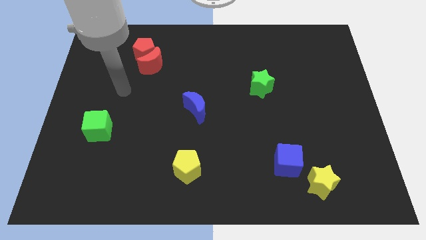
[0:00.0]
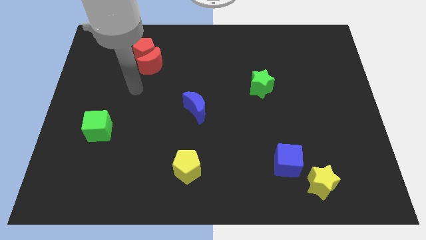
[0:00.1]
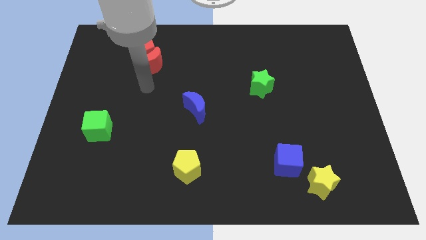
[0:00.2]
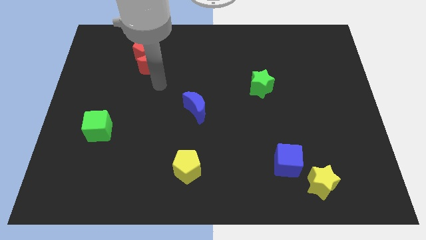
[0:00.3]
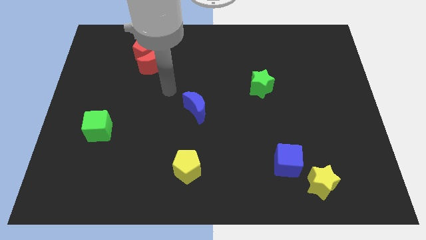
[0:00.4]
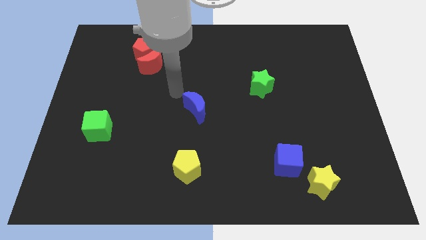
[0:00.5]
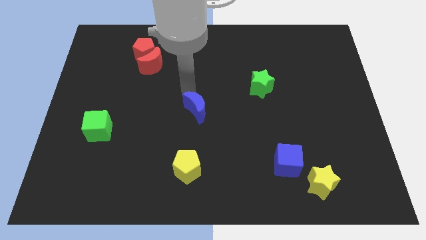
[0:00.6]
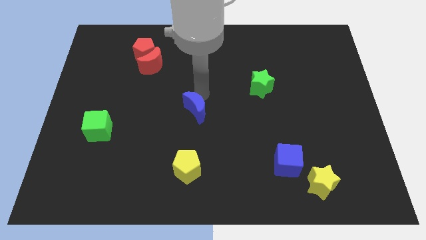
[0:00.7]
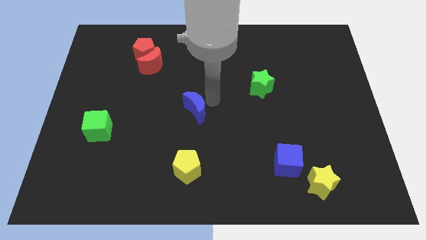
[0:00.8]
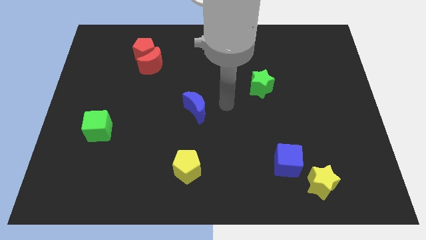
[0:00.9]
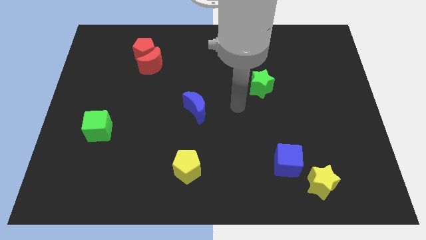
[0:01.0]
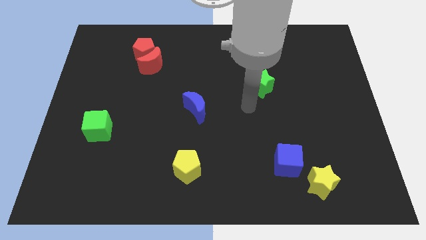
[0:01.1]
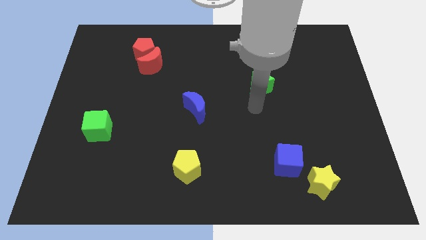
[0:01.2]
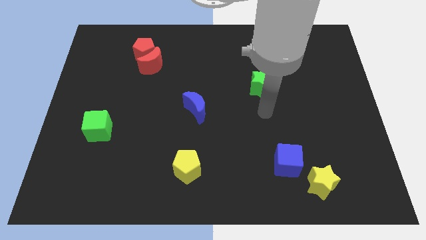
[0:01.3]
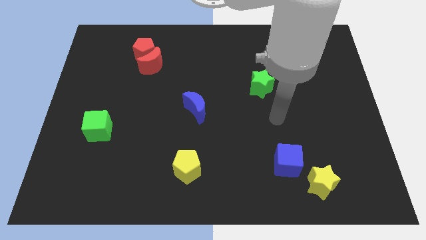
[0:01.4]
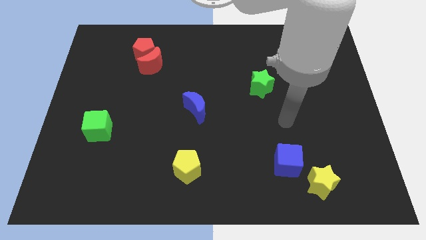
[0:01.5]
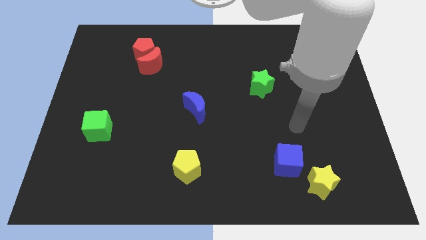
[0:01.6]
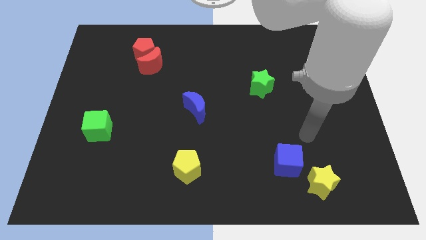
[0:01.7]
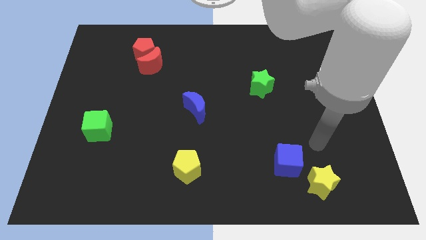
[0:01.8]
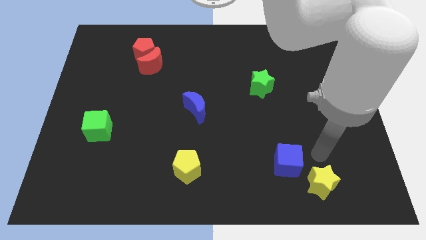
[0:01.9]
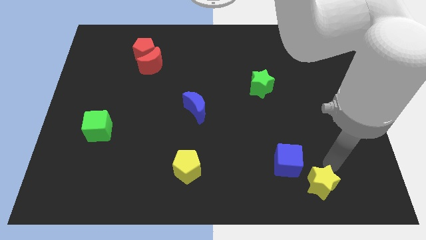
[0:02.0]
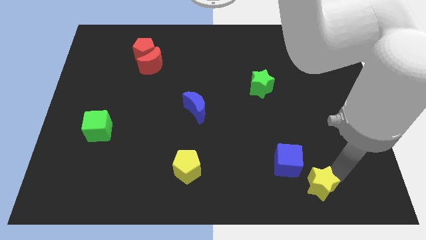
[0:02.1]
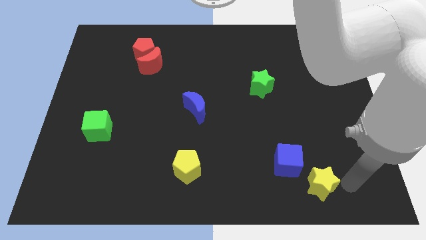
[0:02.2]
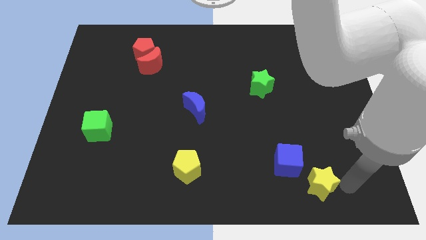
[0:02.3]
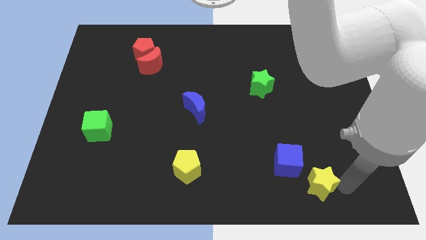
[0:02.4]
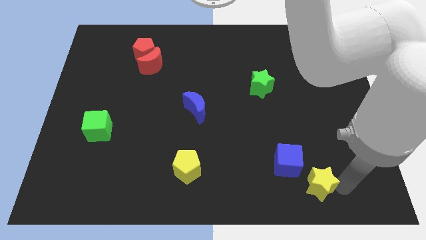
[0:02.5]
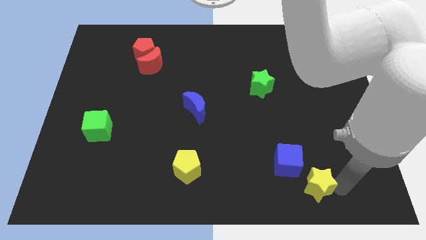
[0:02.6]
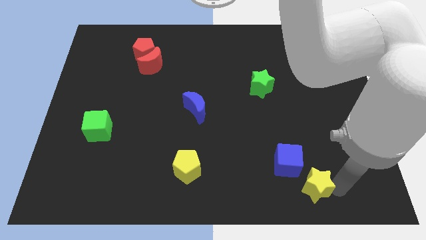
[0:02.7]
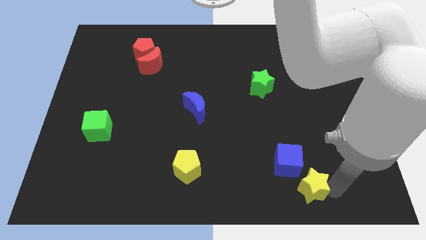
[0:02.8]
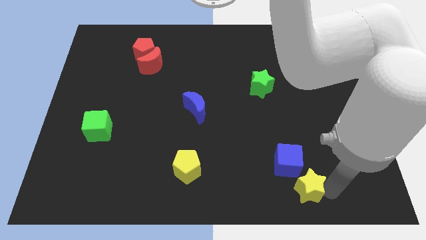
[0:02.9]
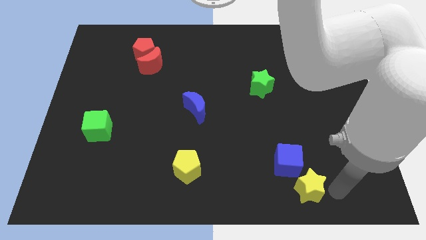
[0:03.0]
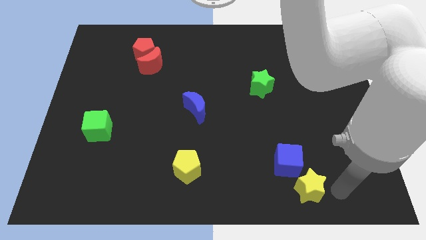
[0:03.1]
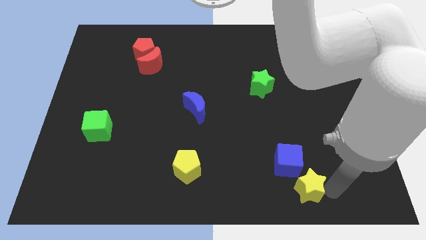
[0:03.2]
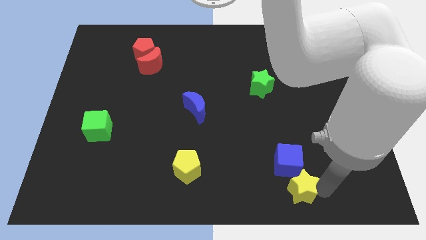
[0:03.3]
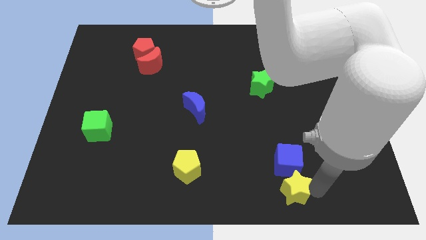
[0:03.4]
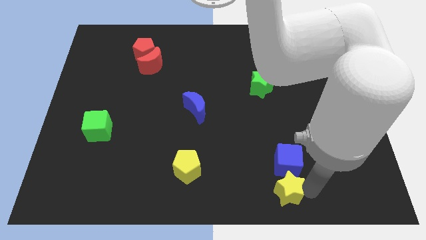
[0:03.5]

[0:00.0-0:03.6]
slide the yellow star to the left a little

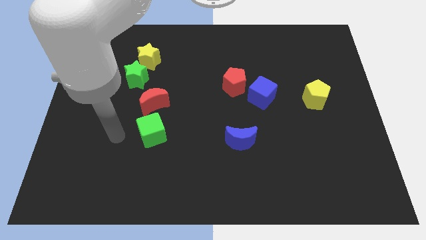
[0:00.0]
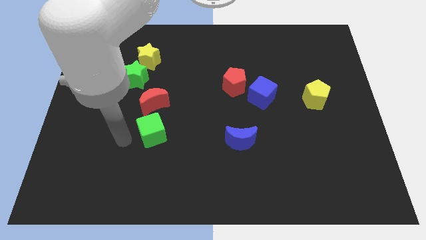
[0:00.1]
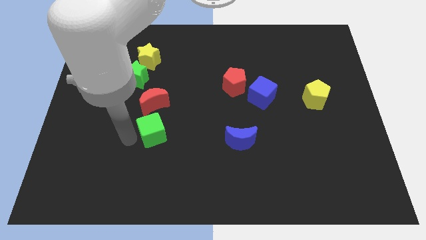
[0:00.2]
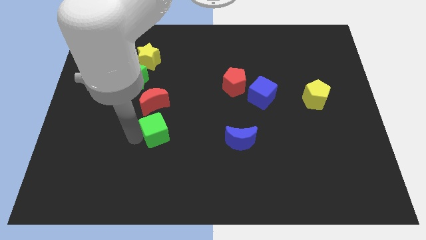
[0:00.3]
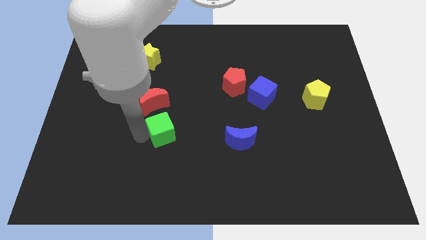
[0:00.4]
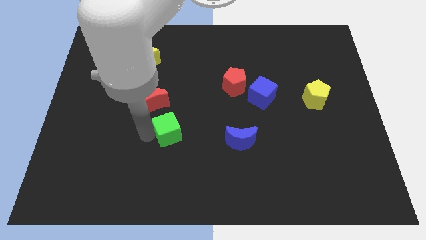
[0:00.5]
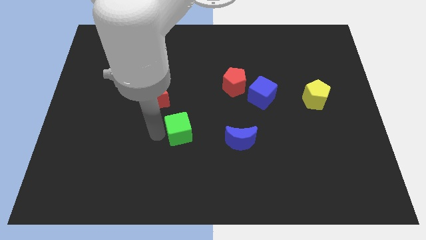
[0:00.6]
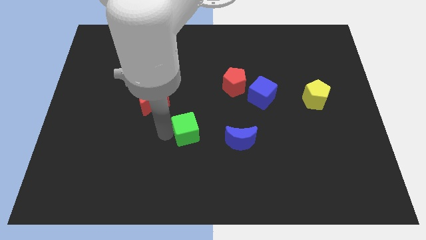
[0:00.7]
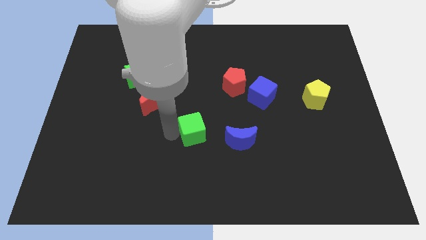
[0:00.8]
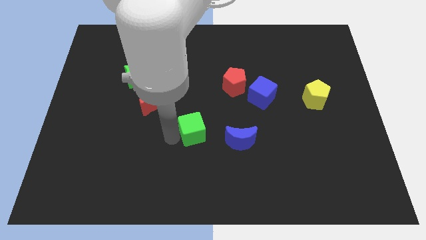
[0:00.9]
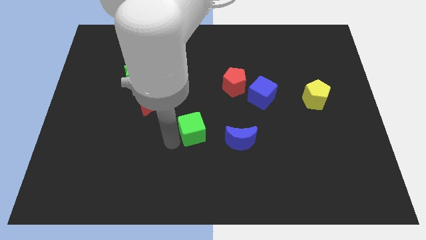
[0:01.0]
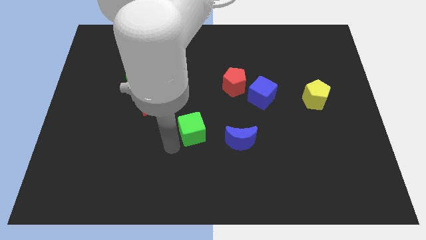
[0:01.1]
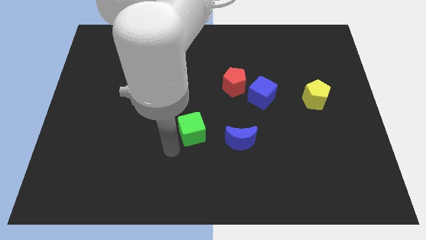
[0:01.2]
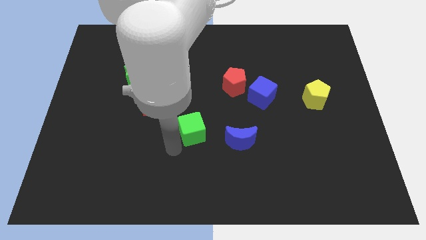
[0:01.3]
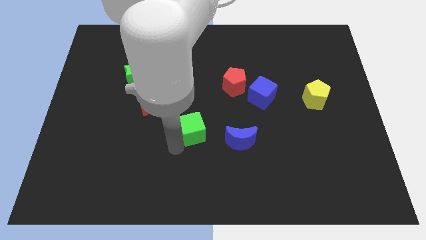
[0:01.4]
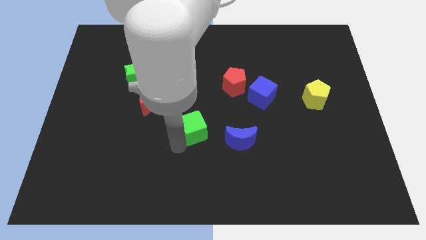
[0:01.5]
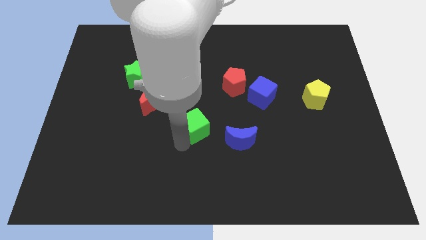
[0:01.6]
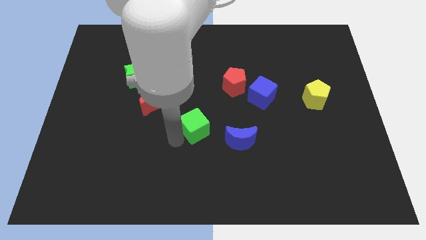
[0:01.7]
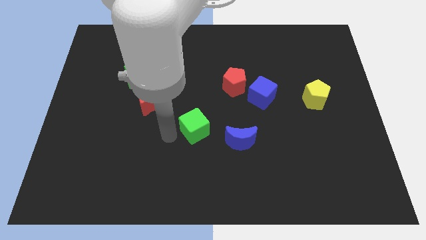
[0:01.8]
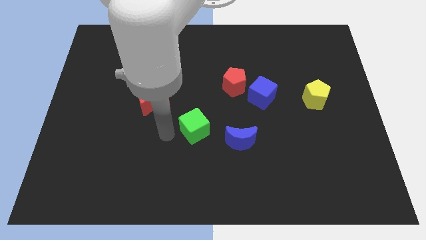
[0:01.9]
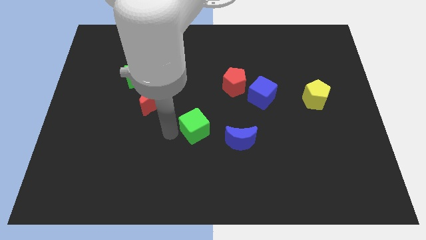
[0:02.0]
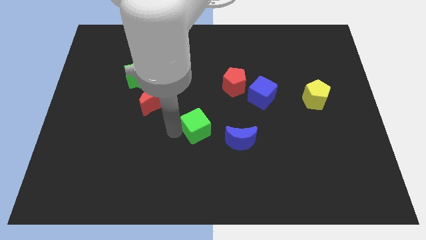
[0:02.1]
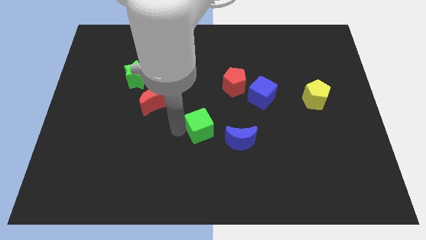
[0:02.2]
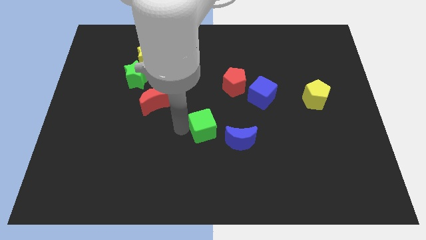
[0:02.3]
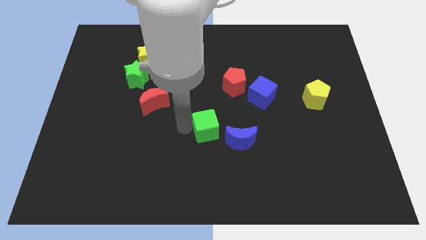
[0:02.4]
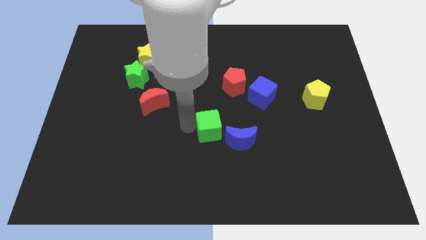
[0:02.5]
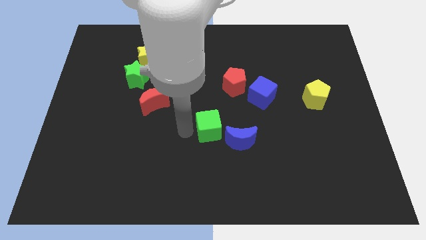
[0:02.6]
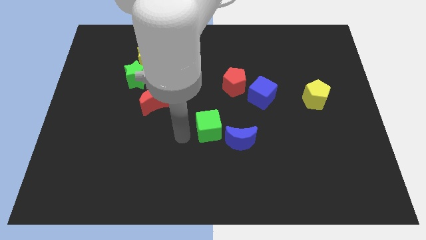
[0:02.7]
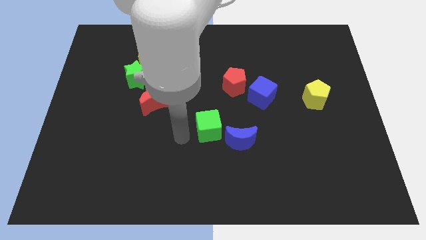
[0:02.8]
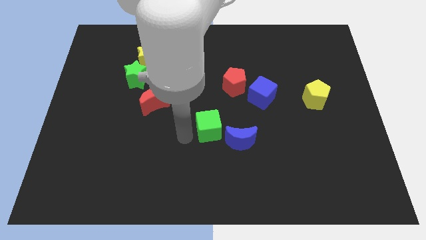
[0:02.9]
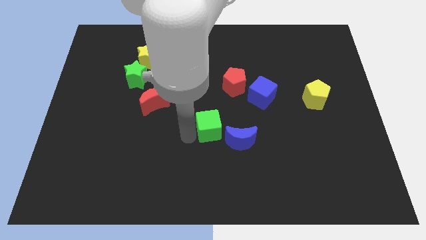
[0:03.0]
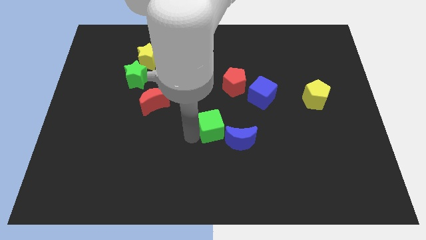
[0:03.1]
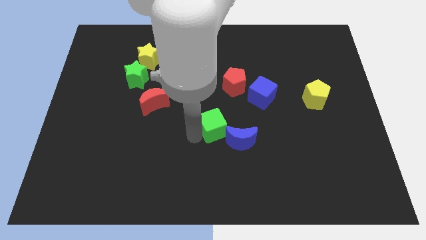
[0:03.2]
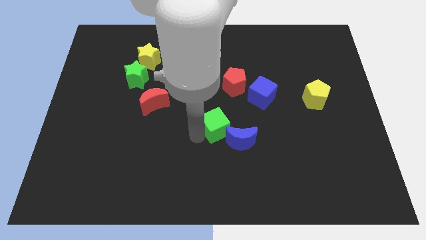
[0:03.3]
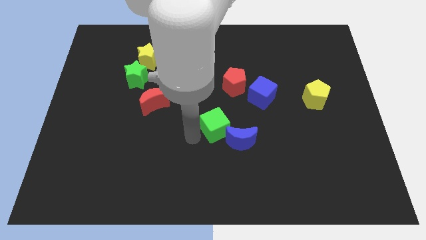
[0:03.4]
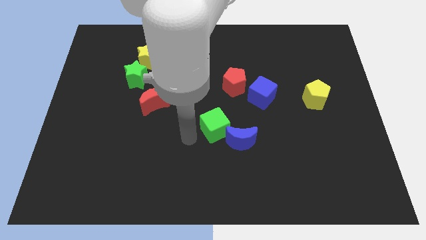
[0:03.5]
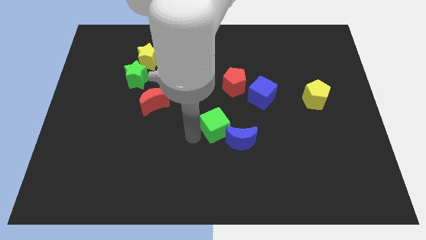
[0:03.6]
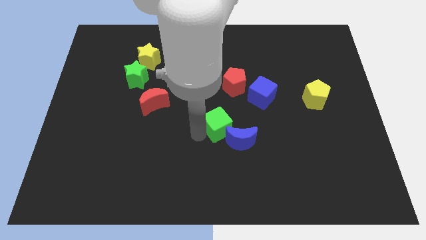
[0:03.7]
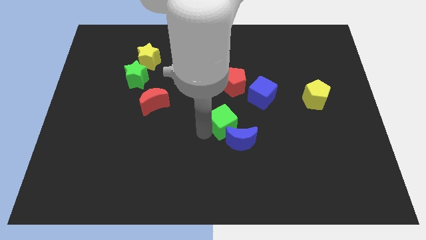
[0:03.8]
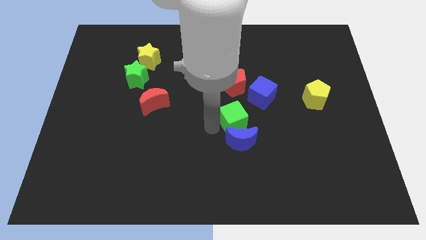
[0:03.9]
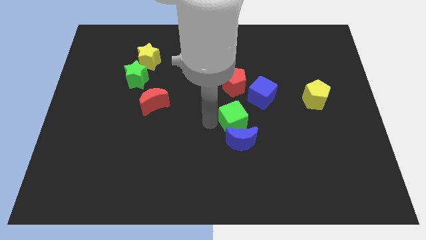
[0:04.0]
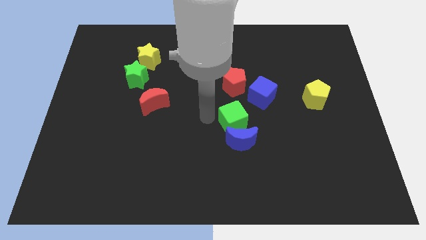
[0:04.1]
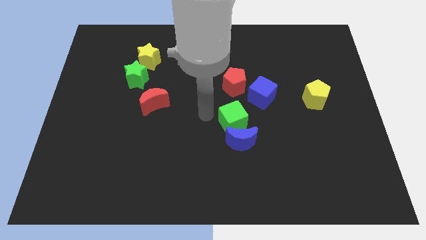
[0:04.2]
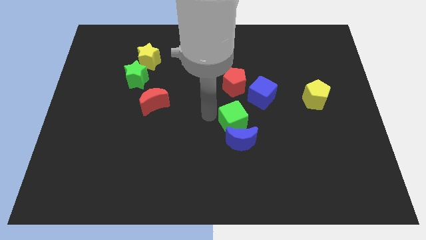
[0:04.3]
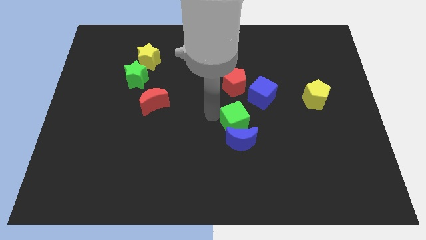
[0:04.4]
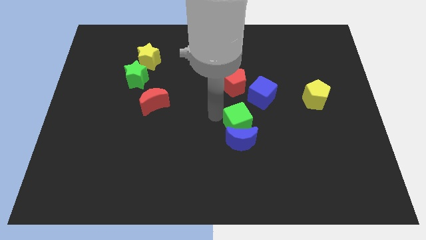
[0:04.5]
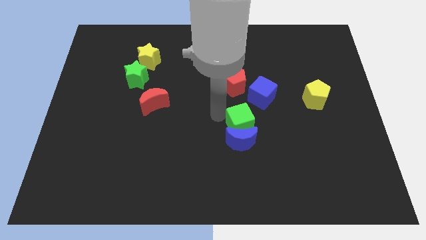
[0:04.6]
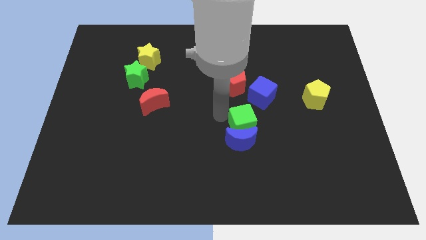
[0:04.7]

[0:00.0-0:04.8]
push the green cube to the right
